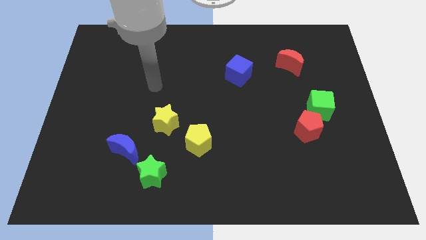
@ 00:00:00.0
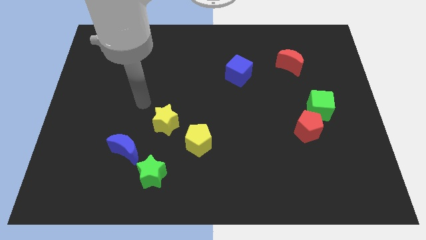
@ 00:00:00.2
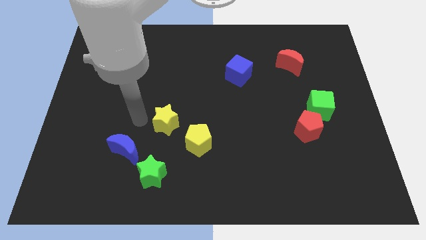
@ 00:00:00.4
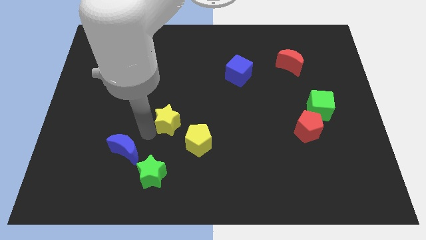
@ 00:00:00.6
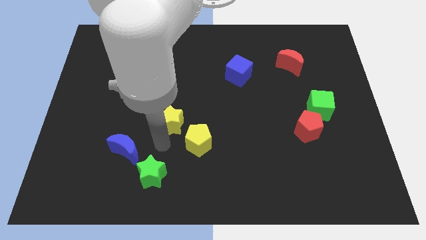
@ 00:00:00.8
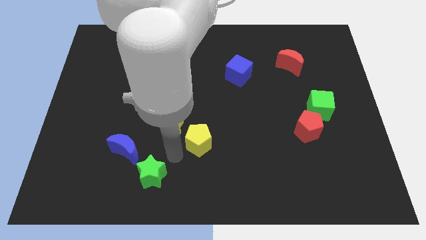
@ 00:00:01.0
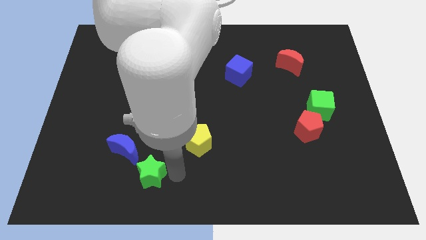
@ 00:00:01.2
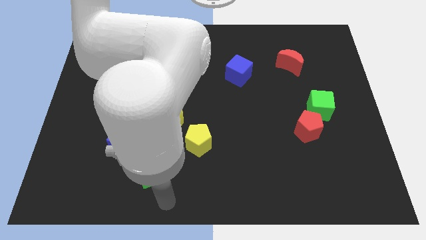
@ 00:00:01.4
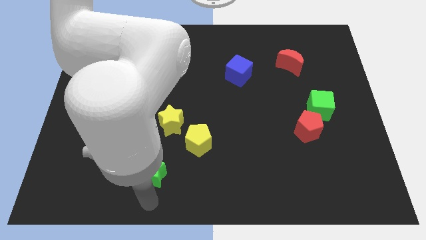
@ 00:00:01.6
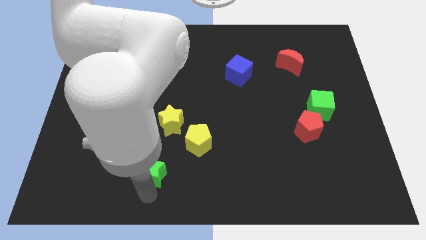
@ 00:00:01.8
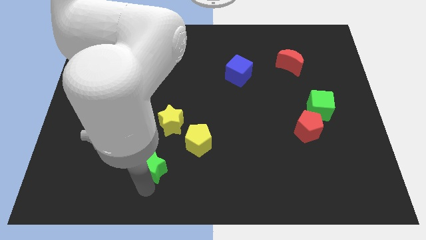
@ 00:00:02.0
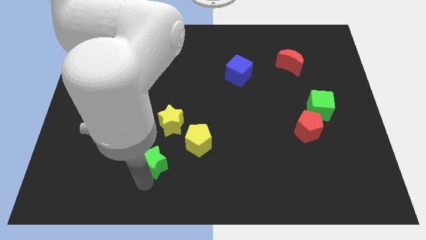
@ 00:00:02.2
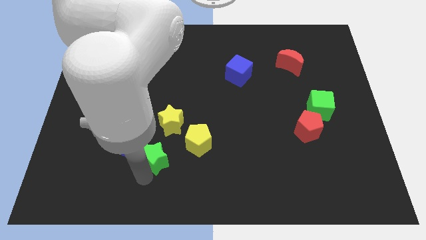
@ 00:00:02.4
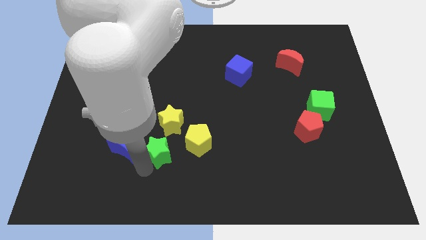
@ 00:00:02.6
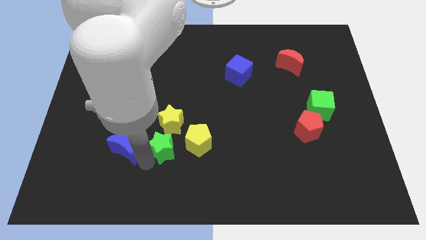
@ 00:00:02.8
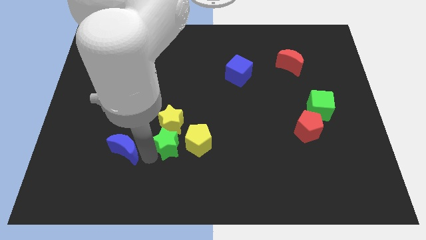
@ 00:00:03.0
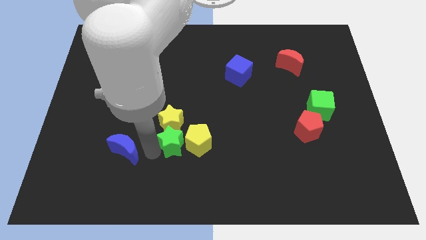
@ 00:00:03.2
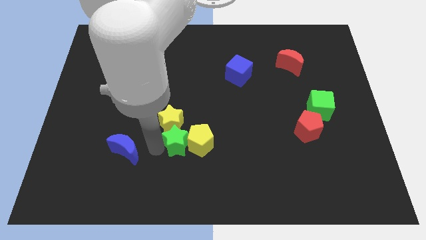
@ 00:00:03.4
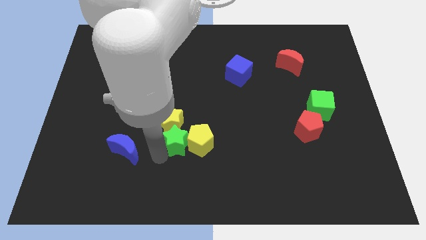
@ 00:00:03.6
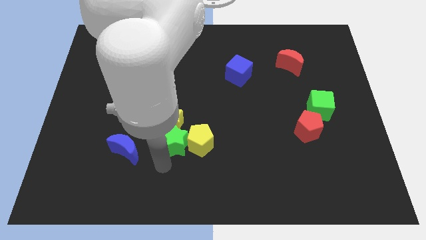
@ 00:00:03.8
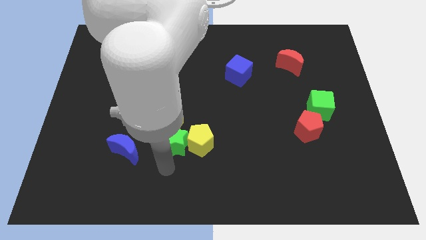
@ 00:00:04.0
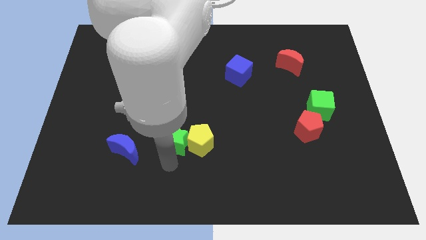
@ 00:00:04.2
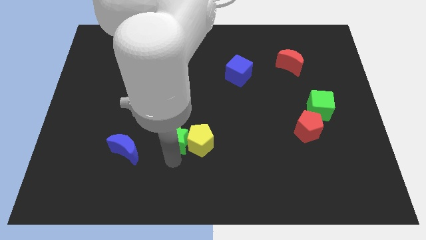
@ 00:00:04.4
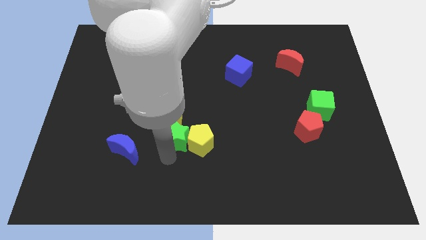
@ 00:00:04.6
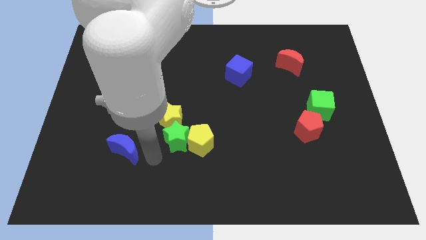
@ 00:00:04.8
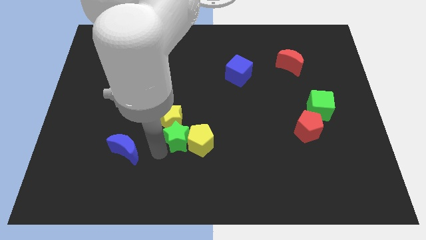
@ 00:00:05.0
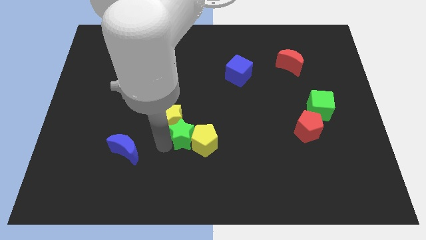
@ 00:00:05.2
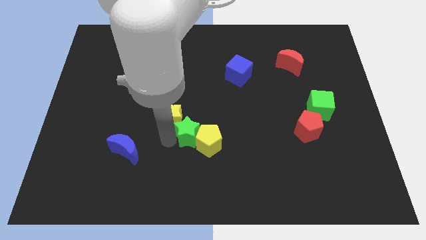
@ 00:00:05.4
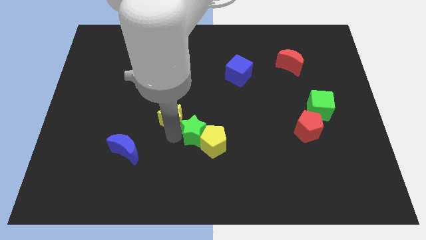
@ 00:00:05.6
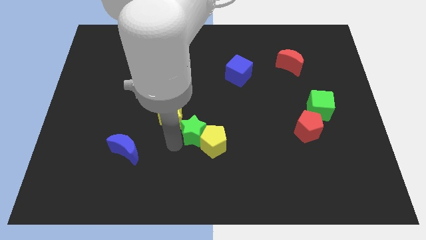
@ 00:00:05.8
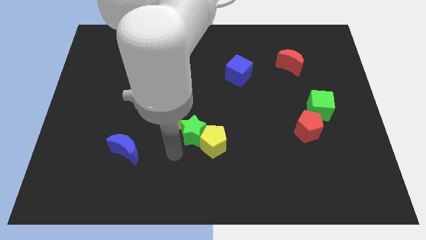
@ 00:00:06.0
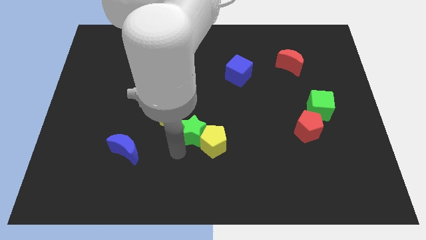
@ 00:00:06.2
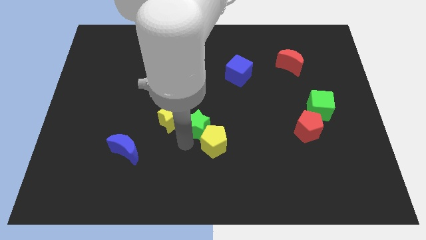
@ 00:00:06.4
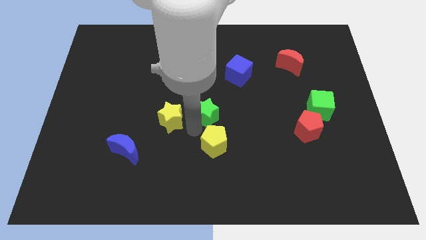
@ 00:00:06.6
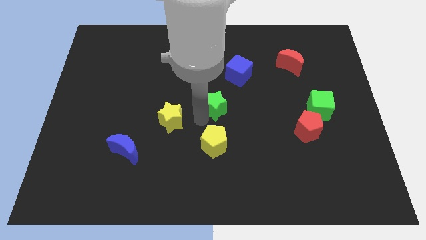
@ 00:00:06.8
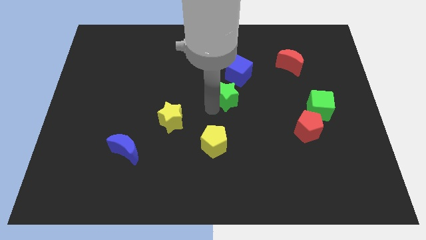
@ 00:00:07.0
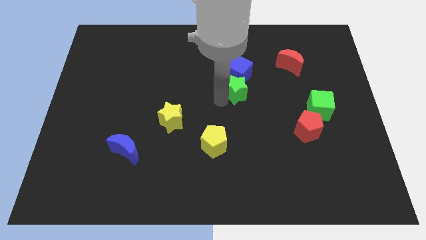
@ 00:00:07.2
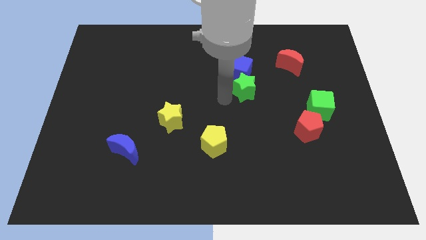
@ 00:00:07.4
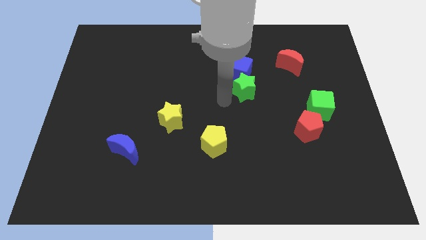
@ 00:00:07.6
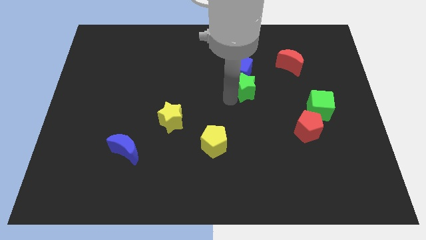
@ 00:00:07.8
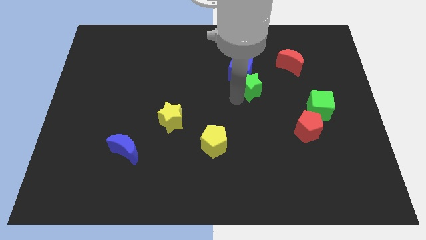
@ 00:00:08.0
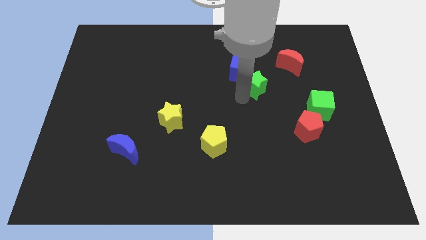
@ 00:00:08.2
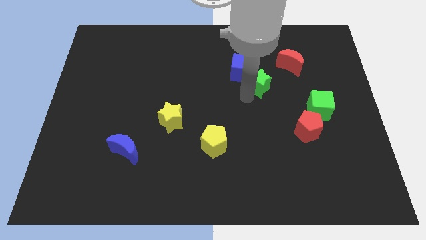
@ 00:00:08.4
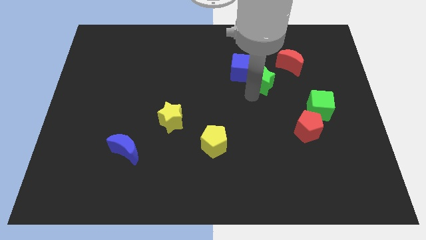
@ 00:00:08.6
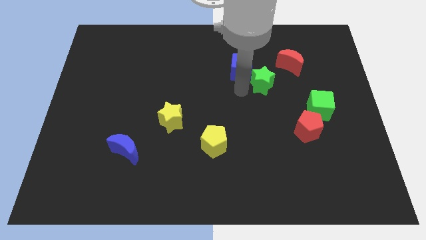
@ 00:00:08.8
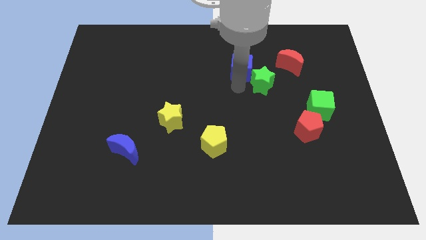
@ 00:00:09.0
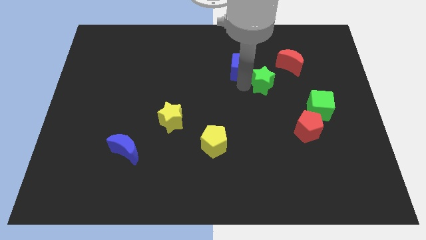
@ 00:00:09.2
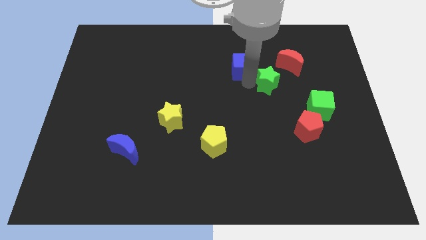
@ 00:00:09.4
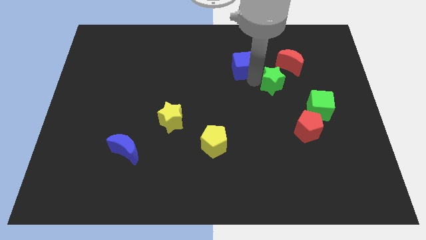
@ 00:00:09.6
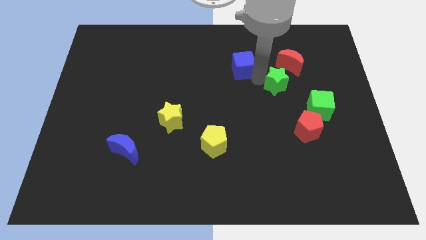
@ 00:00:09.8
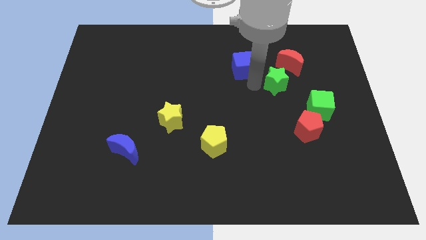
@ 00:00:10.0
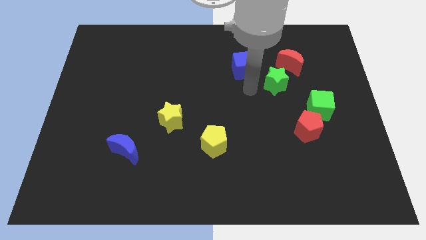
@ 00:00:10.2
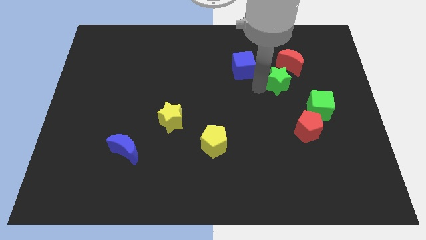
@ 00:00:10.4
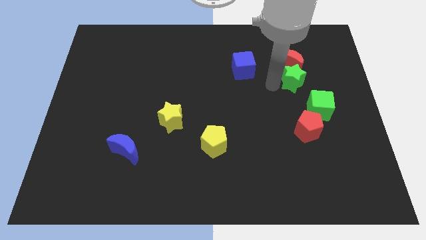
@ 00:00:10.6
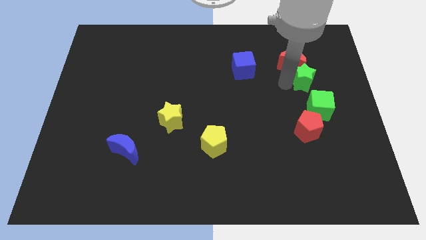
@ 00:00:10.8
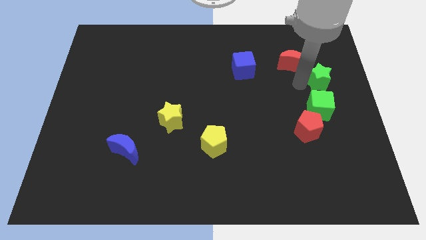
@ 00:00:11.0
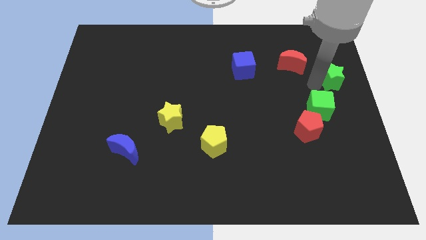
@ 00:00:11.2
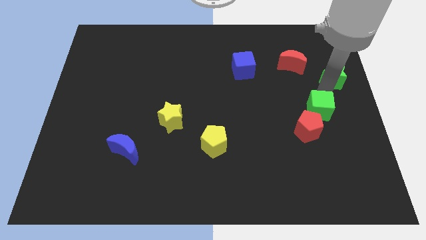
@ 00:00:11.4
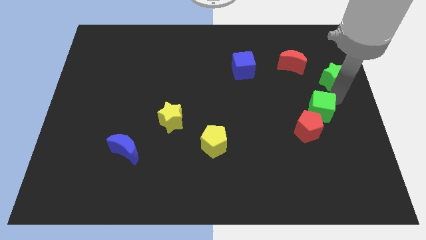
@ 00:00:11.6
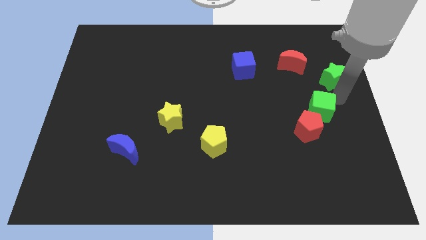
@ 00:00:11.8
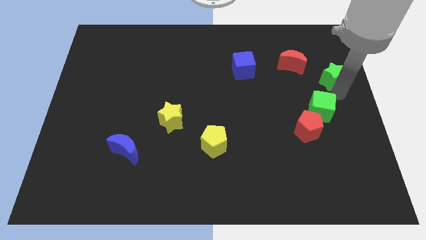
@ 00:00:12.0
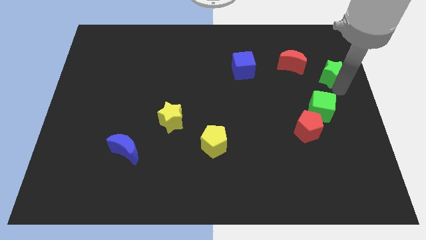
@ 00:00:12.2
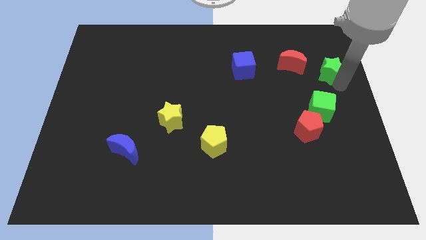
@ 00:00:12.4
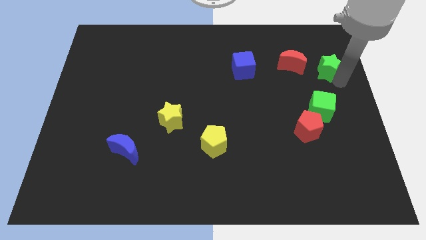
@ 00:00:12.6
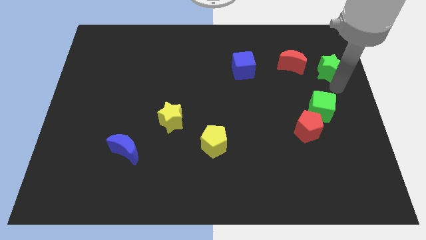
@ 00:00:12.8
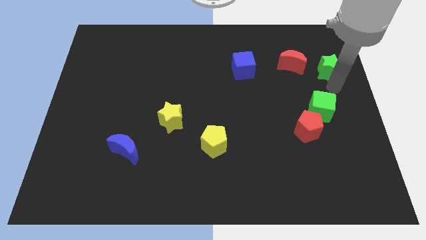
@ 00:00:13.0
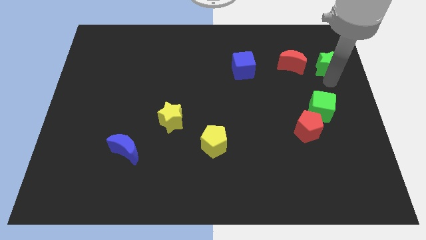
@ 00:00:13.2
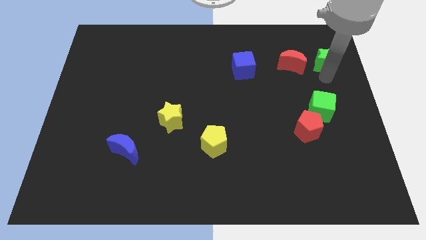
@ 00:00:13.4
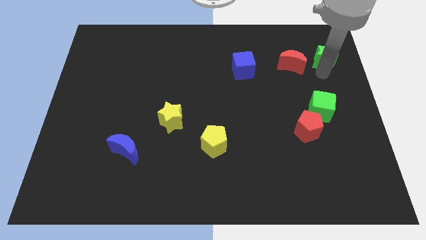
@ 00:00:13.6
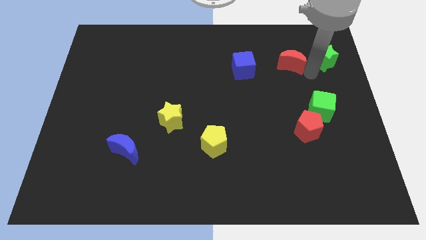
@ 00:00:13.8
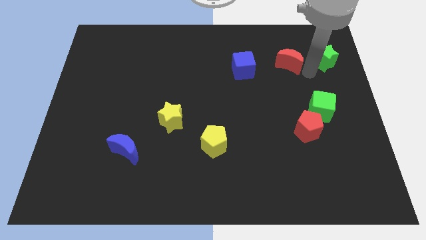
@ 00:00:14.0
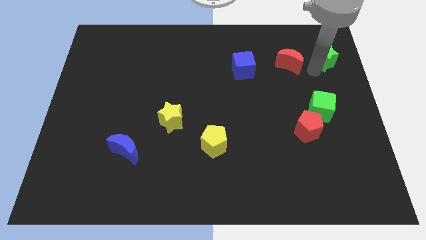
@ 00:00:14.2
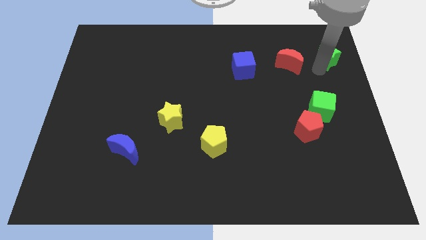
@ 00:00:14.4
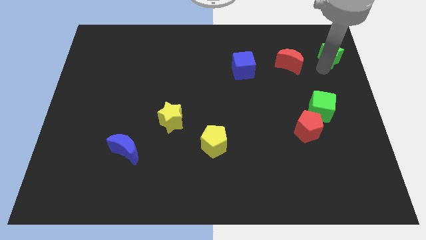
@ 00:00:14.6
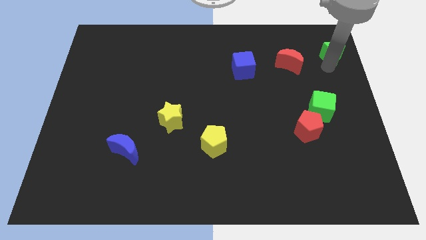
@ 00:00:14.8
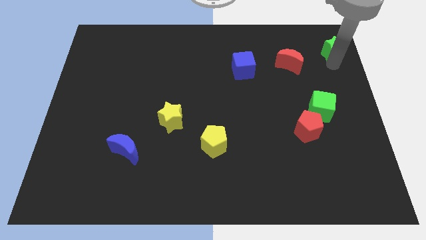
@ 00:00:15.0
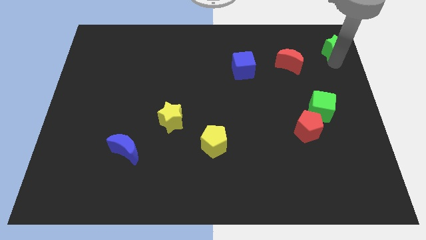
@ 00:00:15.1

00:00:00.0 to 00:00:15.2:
put the green star to the top right of the board

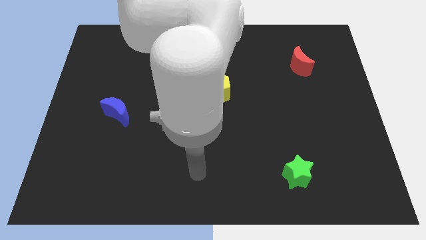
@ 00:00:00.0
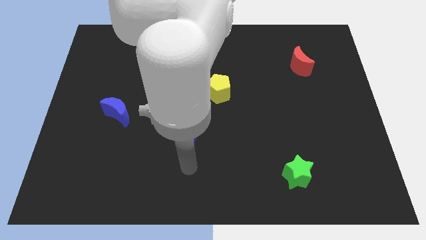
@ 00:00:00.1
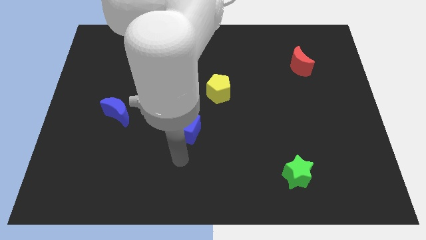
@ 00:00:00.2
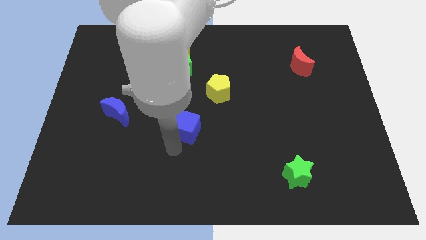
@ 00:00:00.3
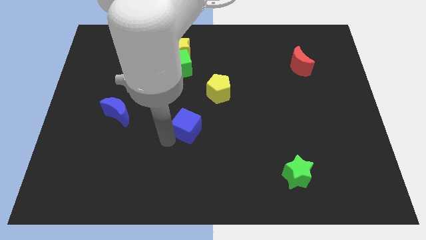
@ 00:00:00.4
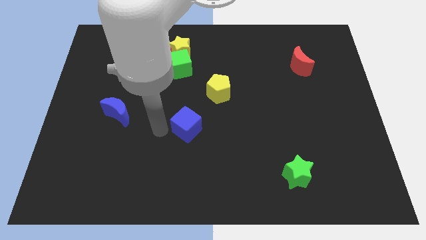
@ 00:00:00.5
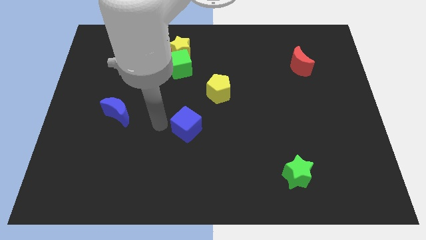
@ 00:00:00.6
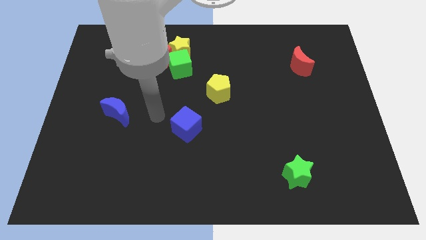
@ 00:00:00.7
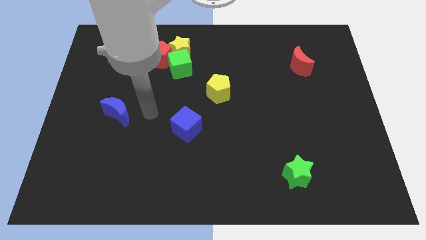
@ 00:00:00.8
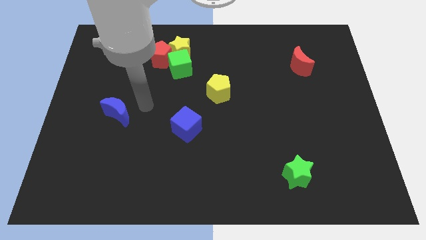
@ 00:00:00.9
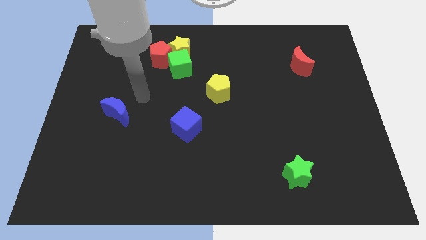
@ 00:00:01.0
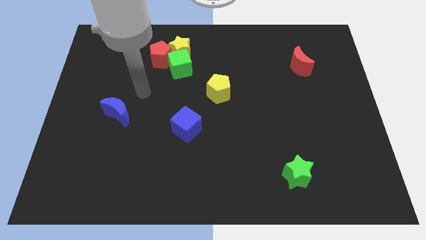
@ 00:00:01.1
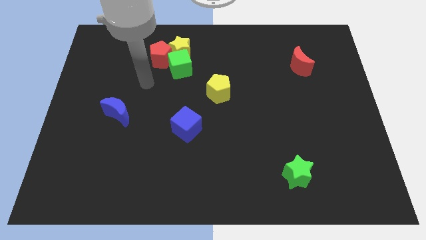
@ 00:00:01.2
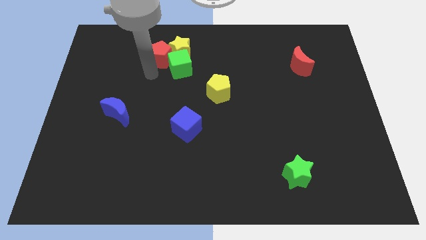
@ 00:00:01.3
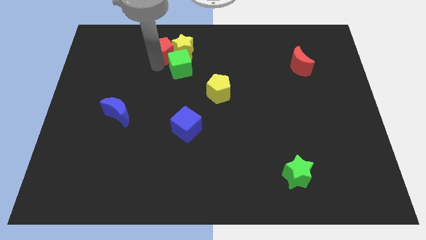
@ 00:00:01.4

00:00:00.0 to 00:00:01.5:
move the yellow star to the top
